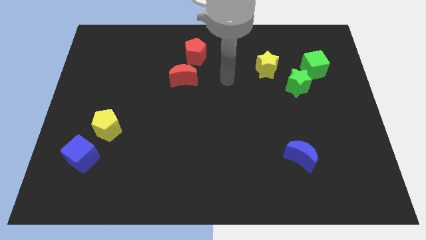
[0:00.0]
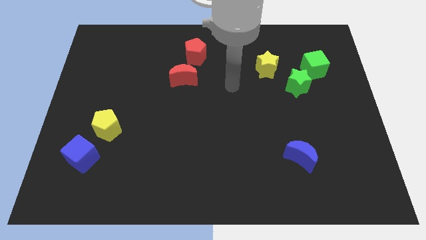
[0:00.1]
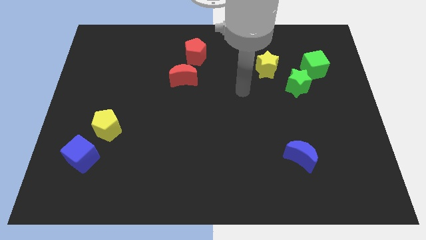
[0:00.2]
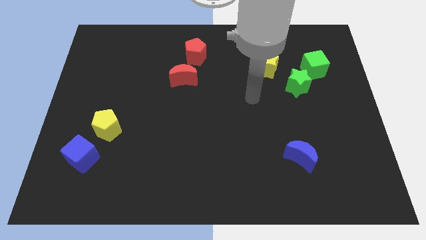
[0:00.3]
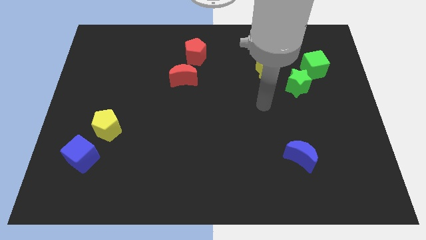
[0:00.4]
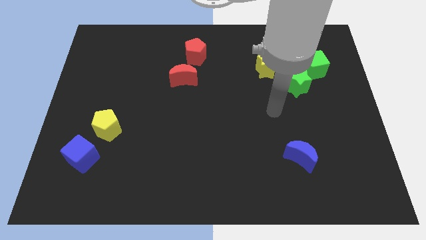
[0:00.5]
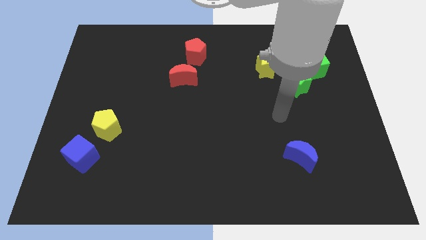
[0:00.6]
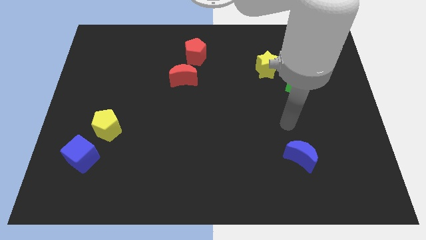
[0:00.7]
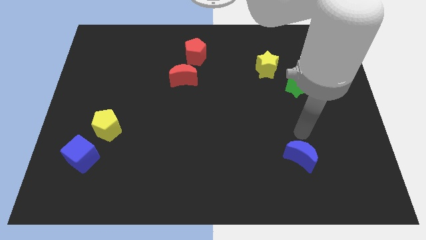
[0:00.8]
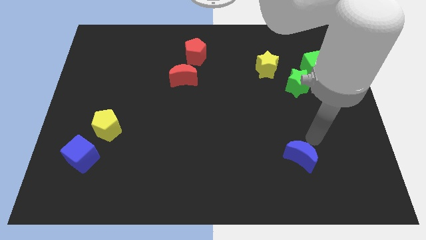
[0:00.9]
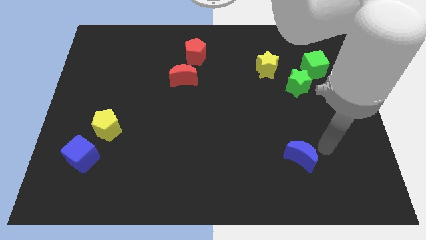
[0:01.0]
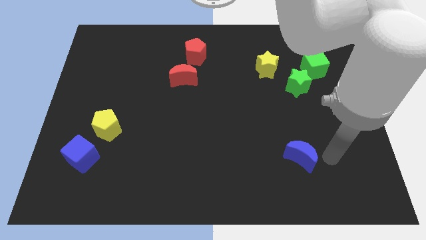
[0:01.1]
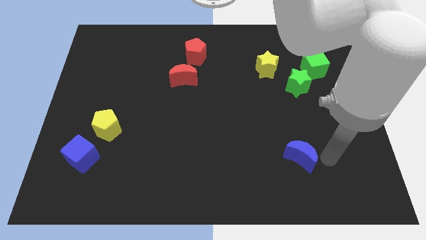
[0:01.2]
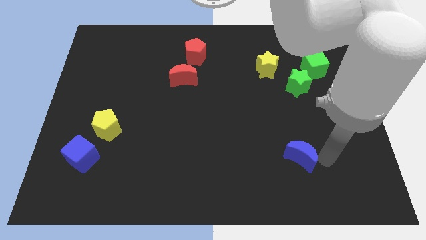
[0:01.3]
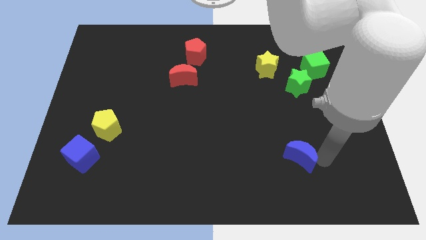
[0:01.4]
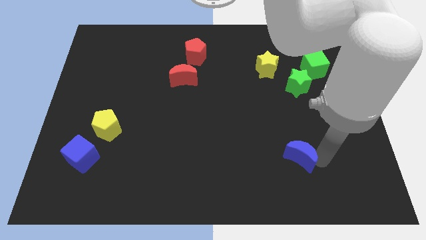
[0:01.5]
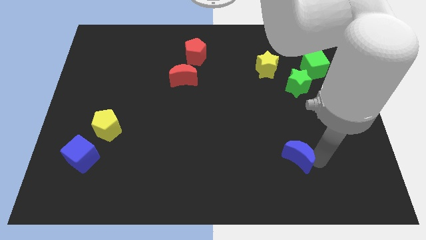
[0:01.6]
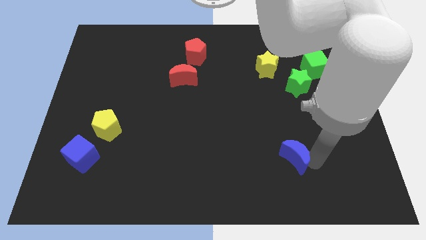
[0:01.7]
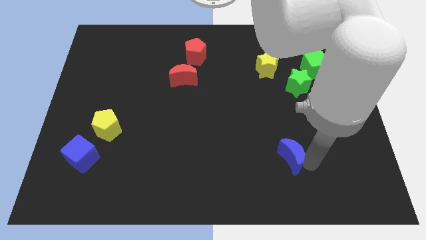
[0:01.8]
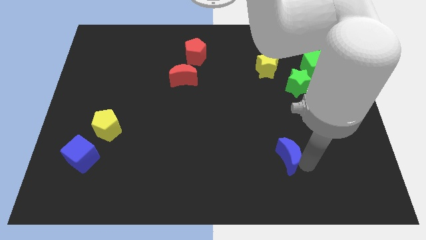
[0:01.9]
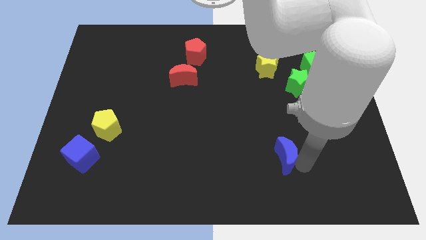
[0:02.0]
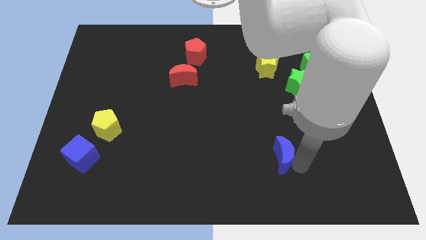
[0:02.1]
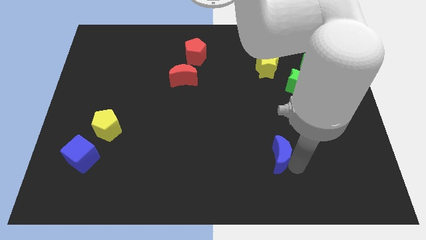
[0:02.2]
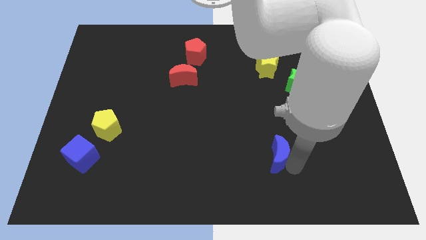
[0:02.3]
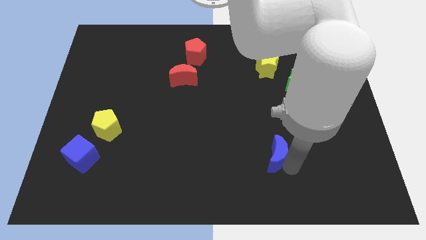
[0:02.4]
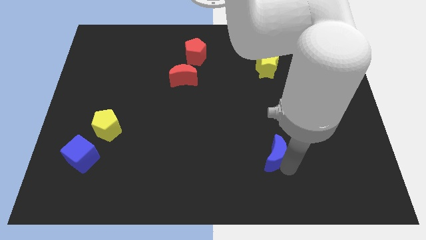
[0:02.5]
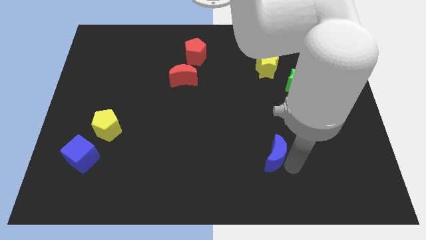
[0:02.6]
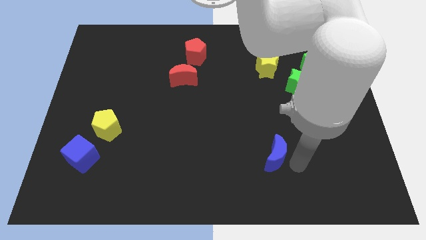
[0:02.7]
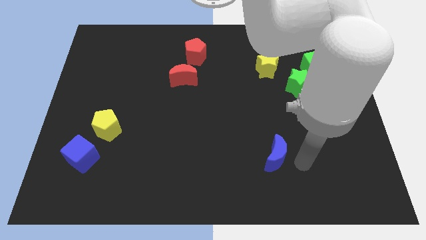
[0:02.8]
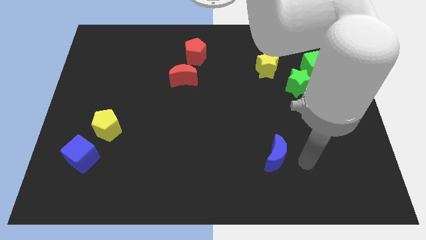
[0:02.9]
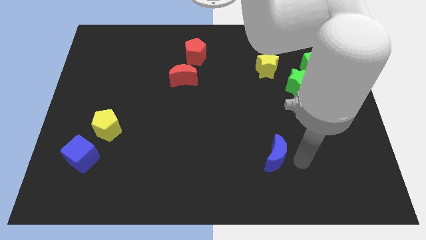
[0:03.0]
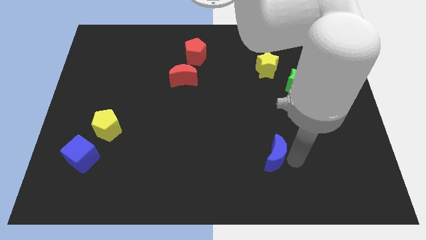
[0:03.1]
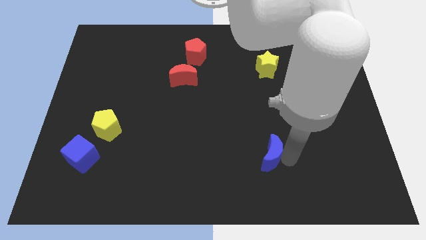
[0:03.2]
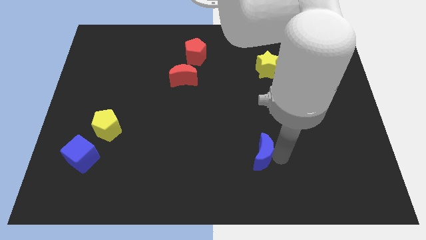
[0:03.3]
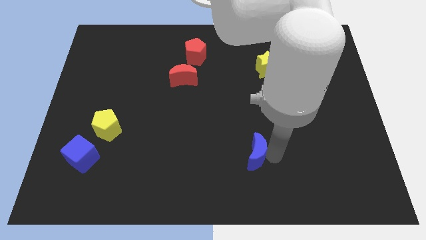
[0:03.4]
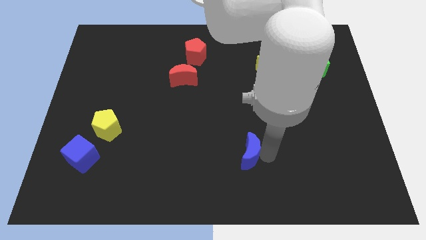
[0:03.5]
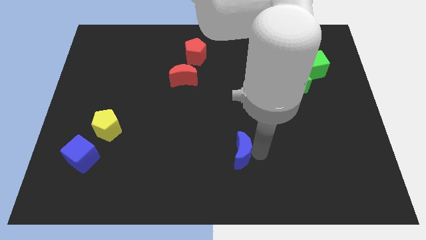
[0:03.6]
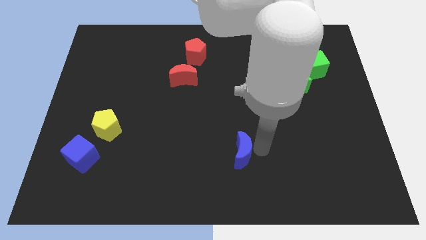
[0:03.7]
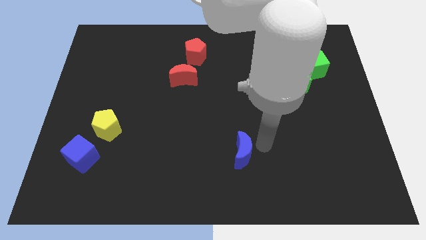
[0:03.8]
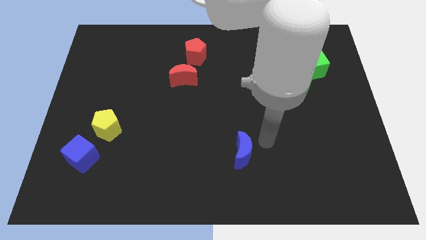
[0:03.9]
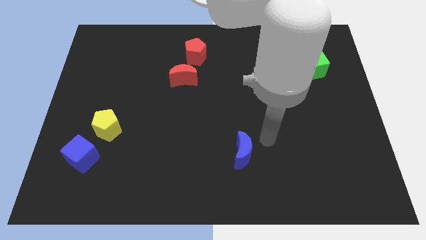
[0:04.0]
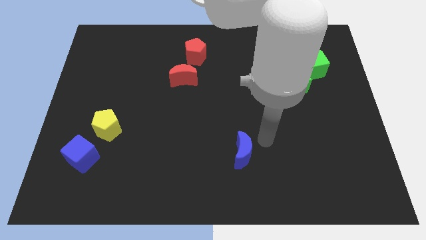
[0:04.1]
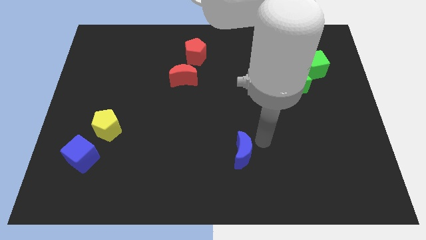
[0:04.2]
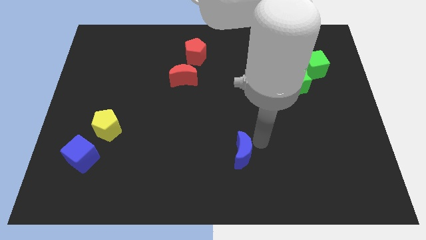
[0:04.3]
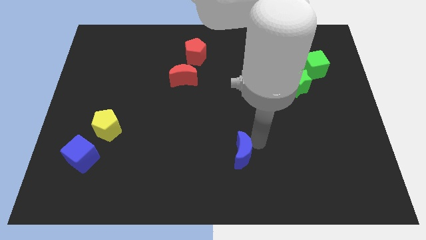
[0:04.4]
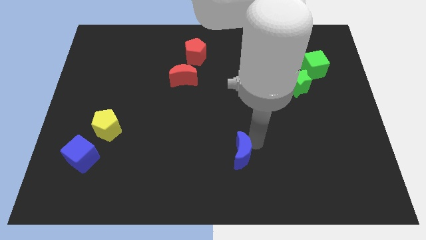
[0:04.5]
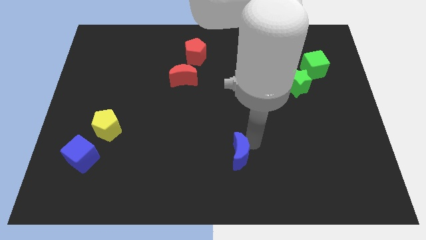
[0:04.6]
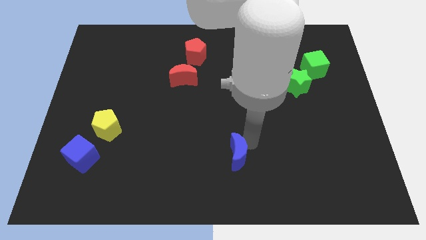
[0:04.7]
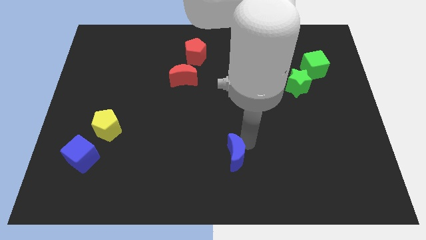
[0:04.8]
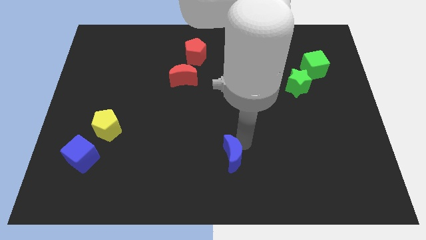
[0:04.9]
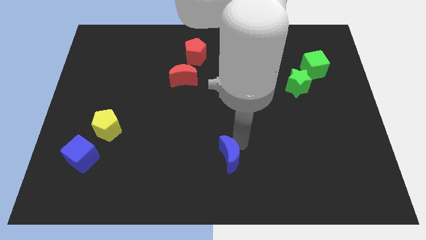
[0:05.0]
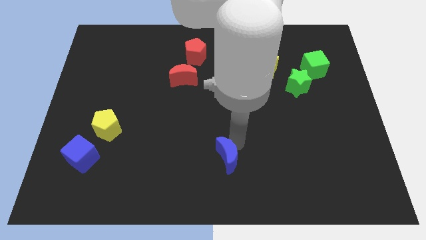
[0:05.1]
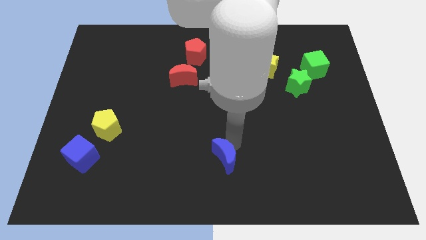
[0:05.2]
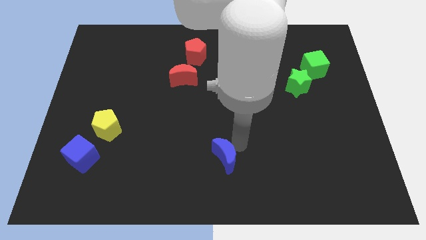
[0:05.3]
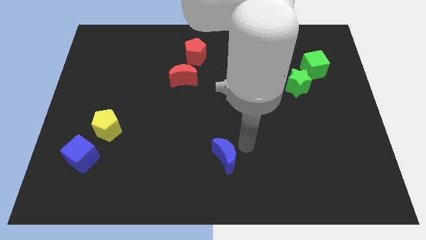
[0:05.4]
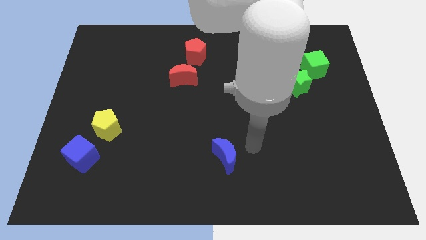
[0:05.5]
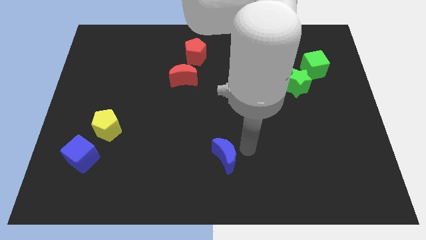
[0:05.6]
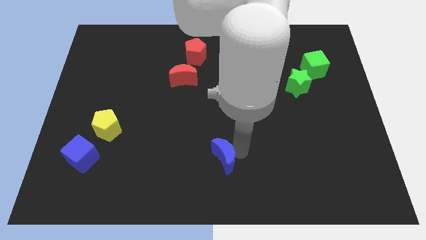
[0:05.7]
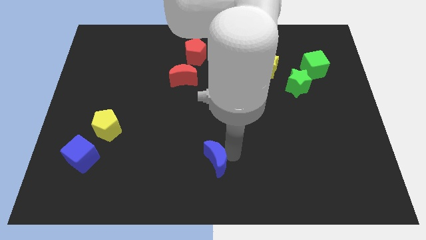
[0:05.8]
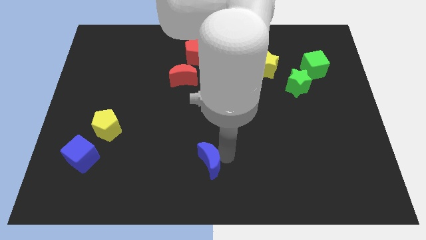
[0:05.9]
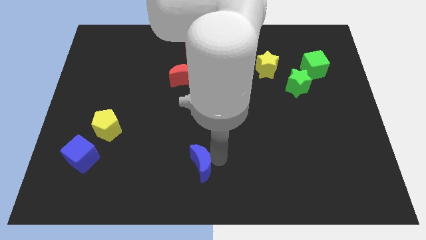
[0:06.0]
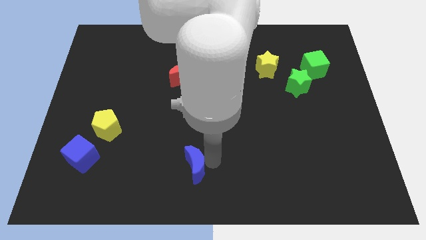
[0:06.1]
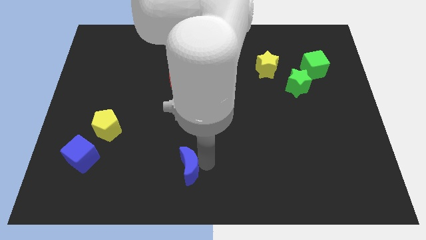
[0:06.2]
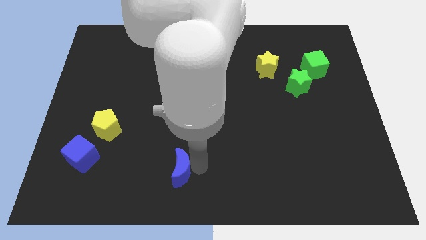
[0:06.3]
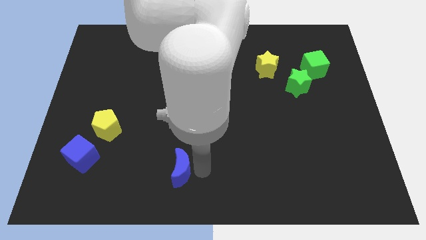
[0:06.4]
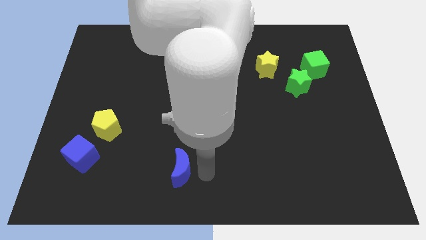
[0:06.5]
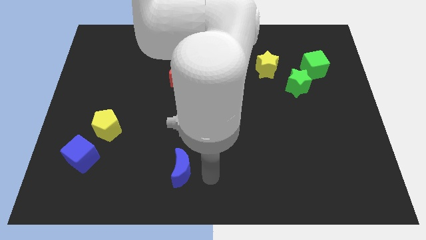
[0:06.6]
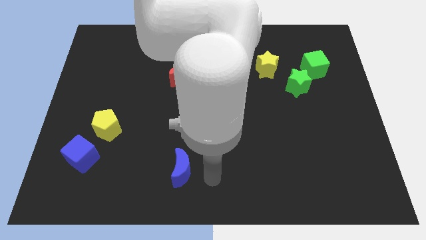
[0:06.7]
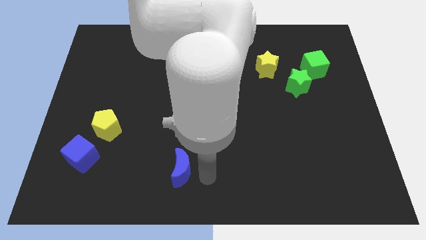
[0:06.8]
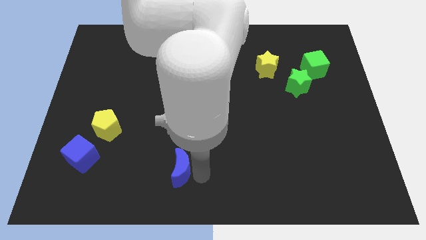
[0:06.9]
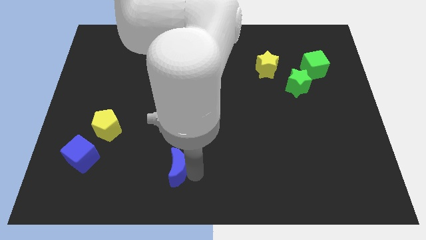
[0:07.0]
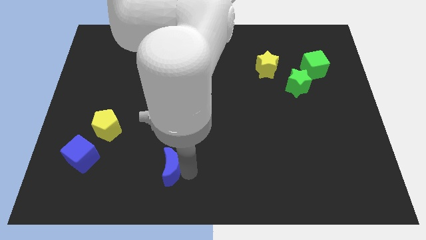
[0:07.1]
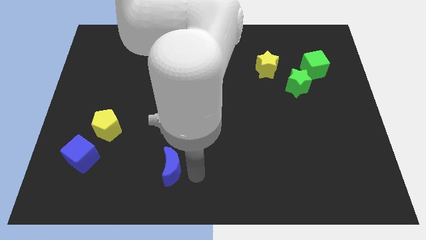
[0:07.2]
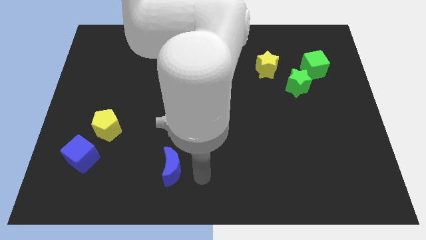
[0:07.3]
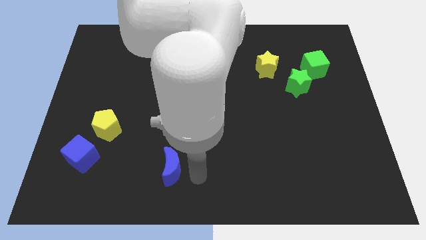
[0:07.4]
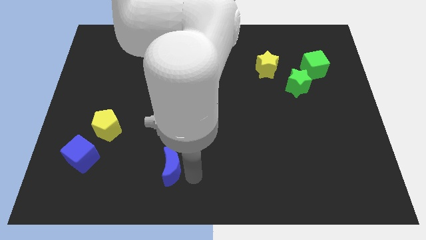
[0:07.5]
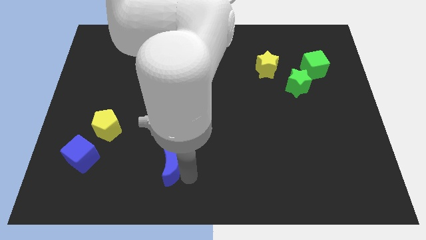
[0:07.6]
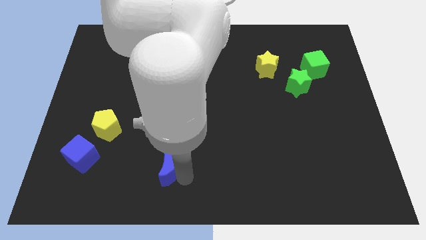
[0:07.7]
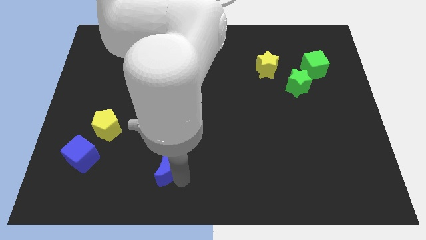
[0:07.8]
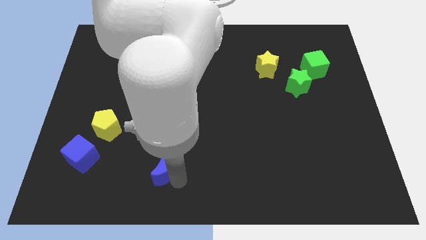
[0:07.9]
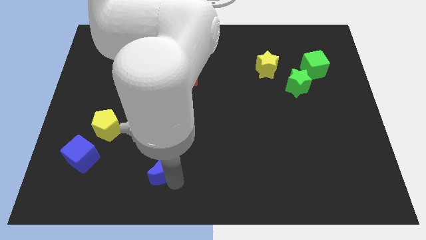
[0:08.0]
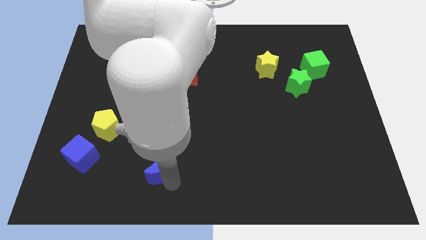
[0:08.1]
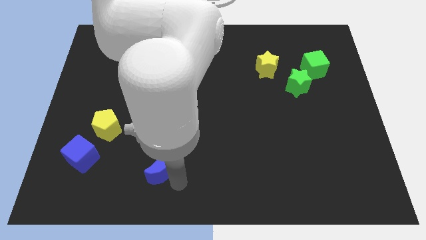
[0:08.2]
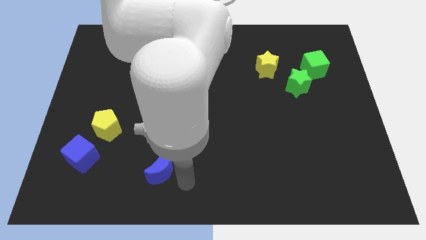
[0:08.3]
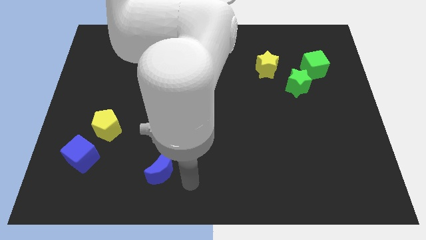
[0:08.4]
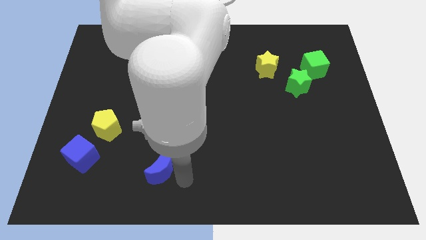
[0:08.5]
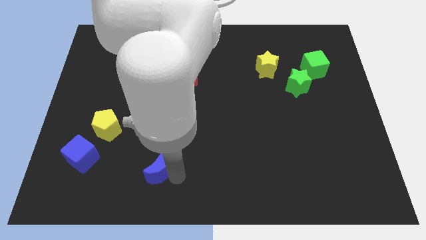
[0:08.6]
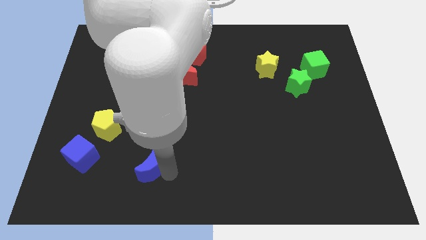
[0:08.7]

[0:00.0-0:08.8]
put the blue moon right of the blue cube
